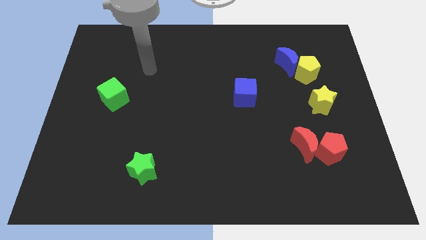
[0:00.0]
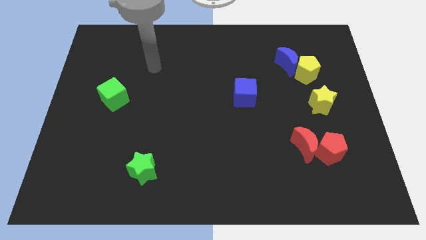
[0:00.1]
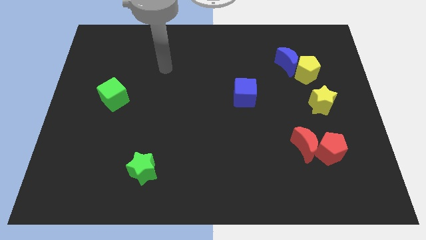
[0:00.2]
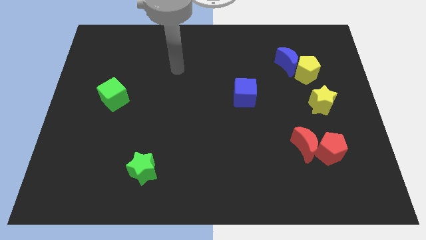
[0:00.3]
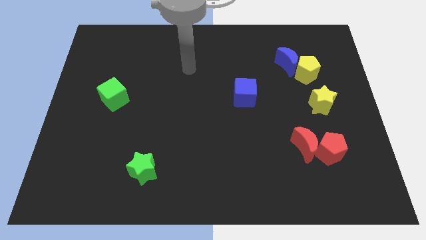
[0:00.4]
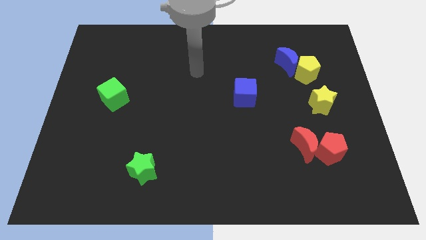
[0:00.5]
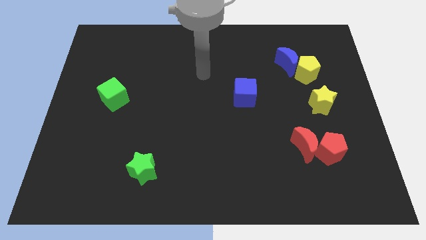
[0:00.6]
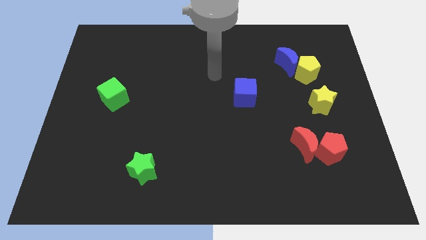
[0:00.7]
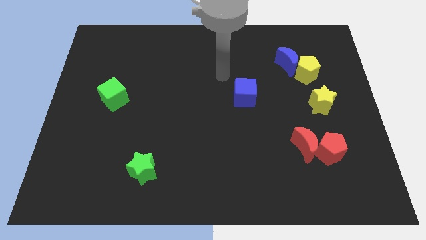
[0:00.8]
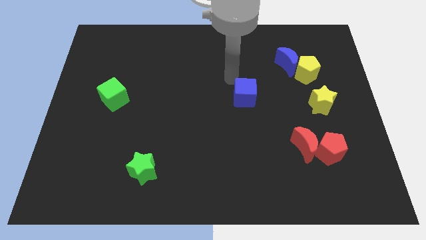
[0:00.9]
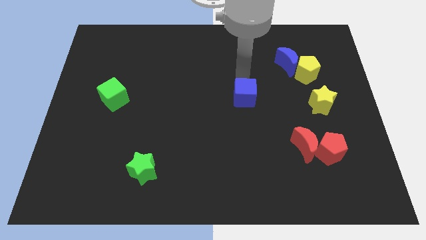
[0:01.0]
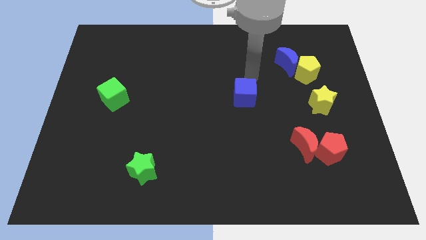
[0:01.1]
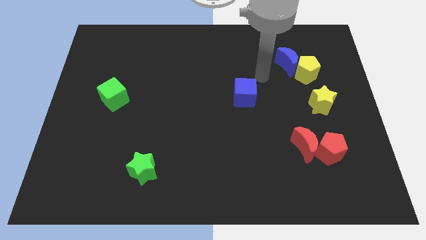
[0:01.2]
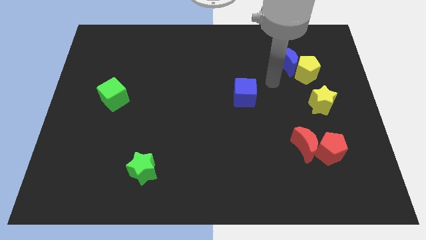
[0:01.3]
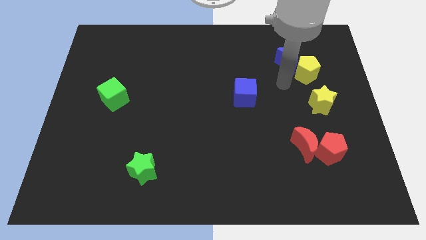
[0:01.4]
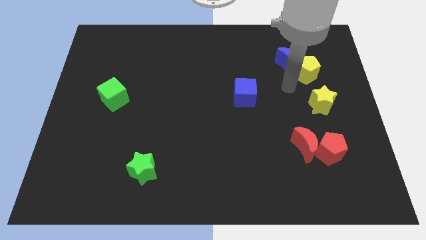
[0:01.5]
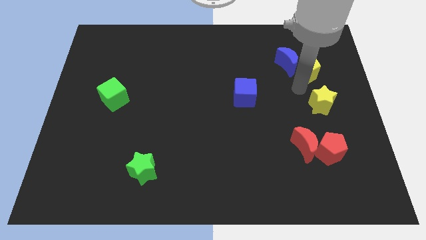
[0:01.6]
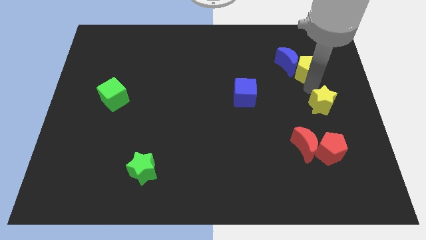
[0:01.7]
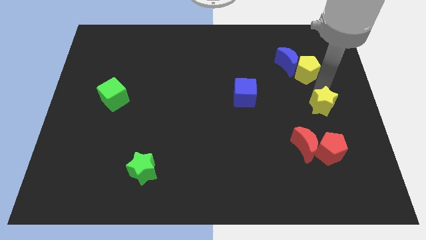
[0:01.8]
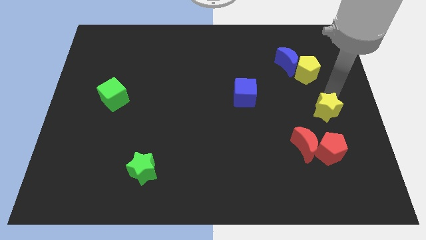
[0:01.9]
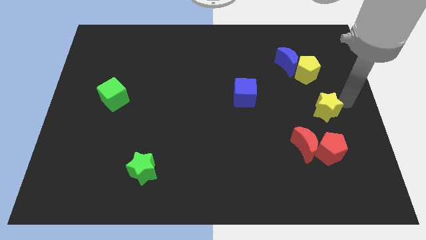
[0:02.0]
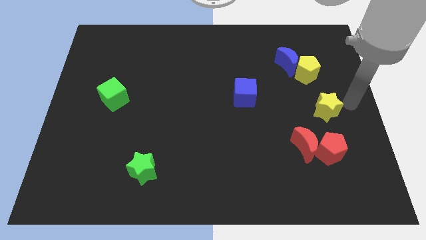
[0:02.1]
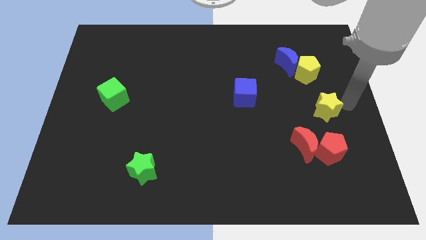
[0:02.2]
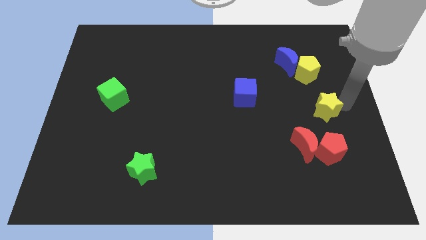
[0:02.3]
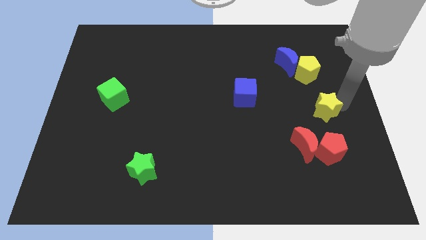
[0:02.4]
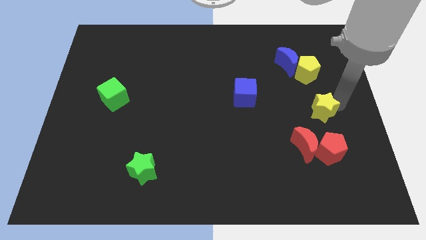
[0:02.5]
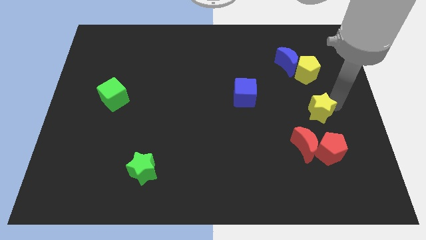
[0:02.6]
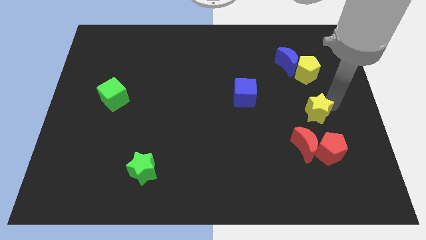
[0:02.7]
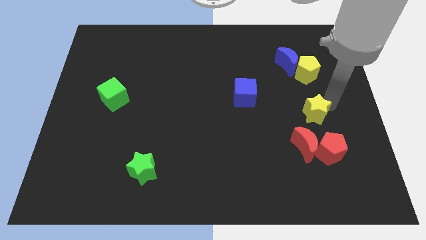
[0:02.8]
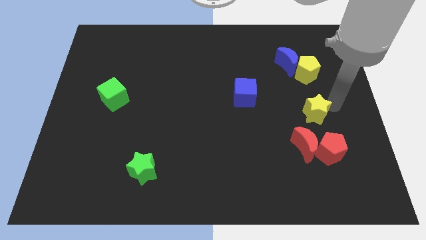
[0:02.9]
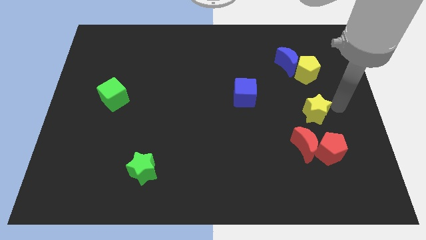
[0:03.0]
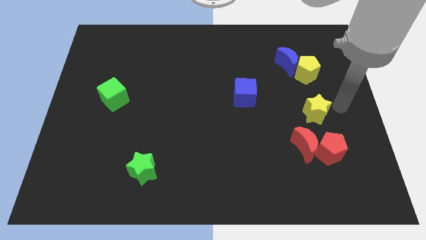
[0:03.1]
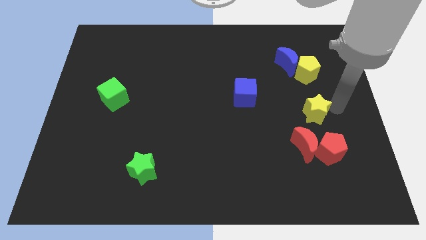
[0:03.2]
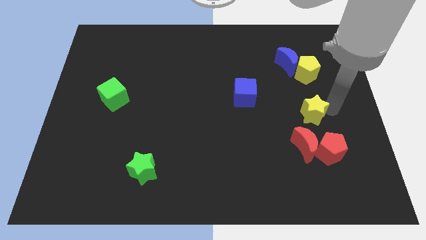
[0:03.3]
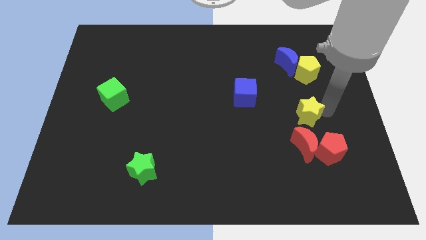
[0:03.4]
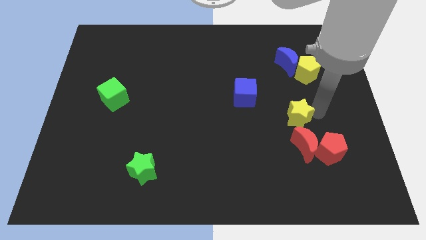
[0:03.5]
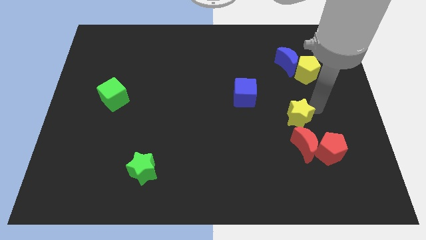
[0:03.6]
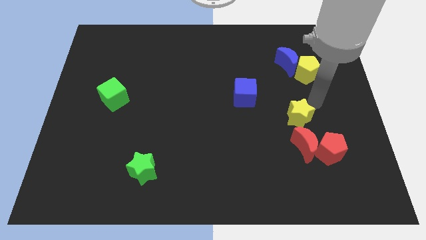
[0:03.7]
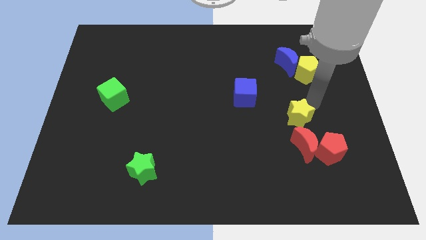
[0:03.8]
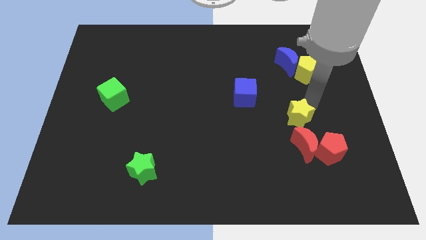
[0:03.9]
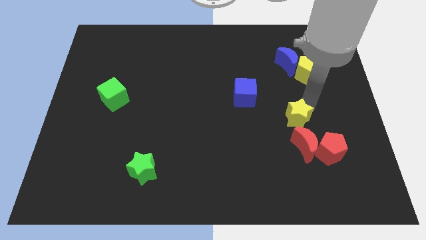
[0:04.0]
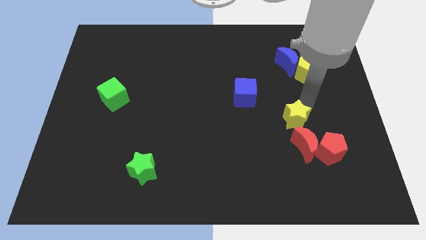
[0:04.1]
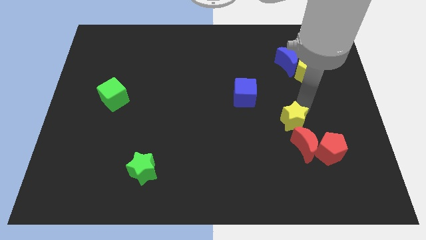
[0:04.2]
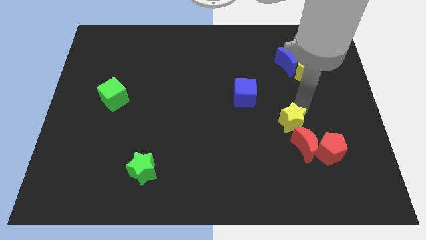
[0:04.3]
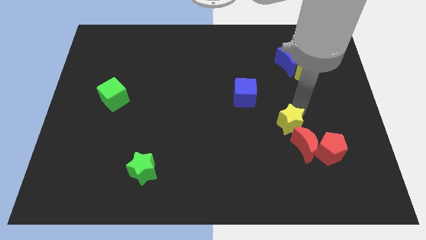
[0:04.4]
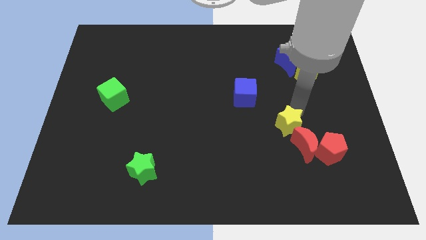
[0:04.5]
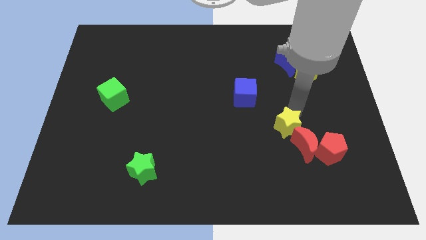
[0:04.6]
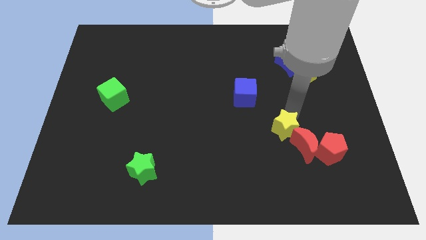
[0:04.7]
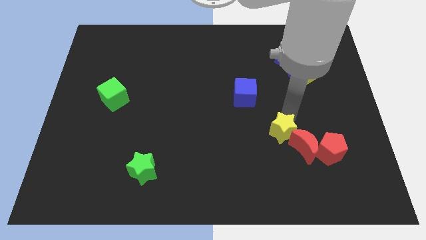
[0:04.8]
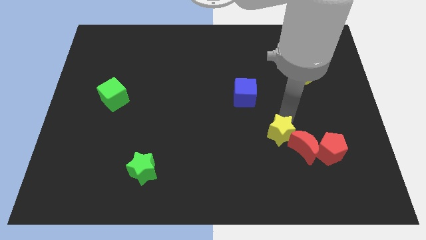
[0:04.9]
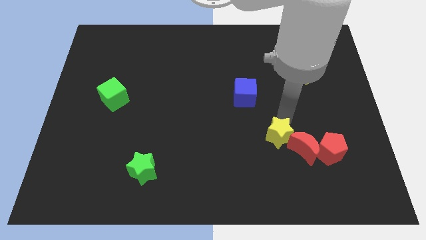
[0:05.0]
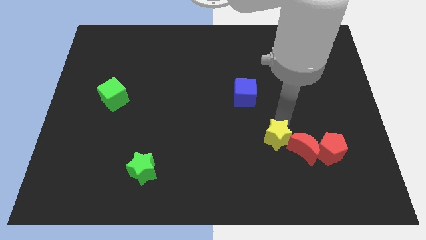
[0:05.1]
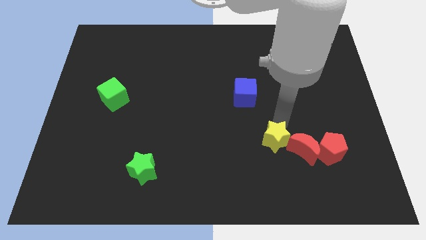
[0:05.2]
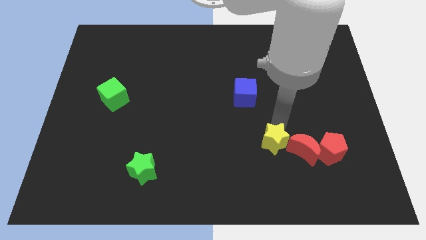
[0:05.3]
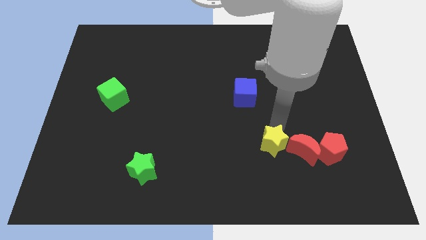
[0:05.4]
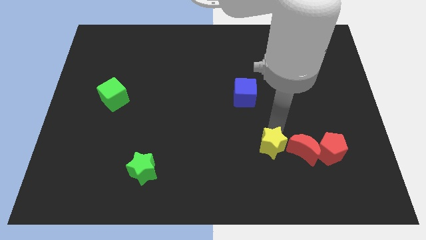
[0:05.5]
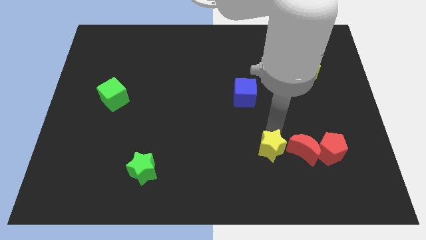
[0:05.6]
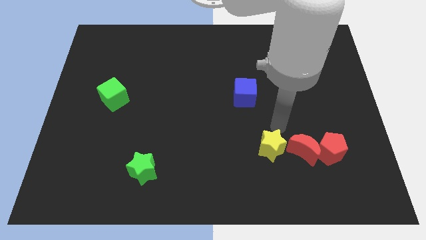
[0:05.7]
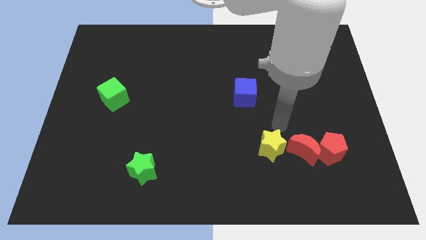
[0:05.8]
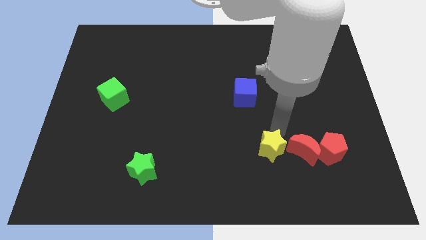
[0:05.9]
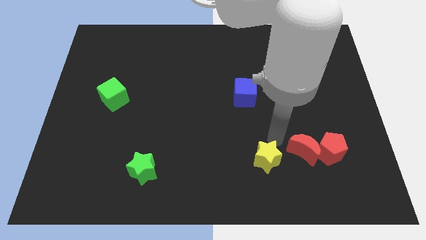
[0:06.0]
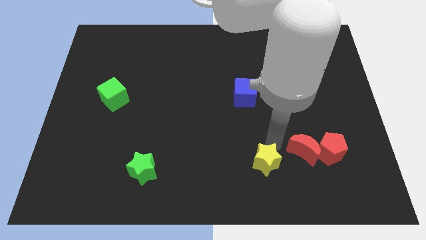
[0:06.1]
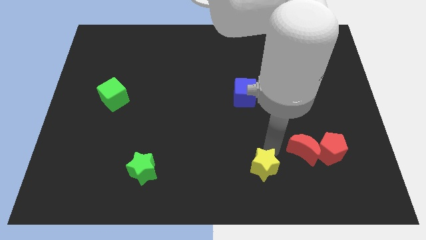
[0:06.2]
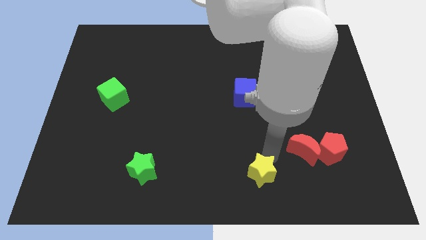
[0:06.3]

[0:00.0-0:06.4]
push the yellow star to the bottom side

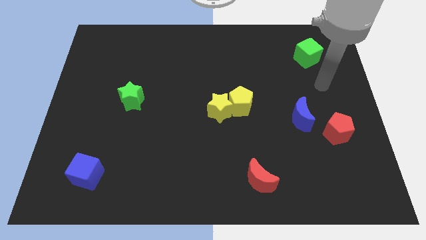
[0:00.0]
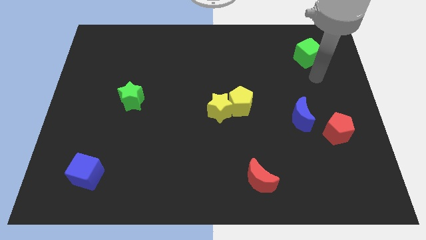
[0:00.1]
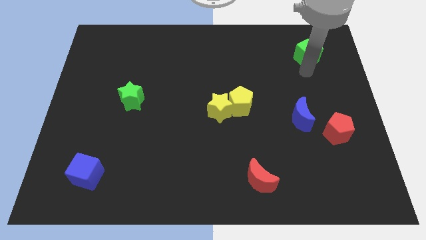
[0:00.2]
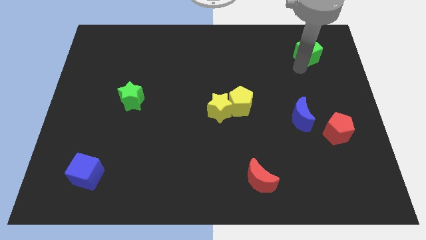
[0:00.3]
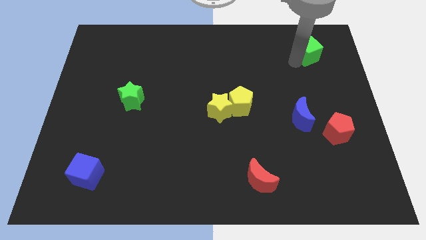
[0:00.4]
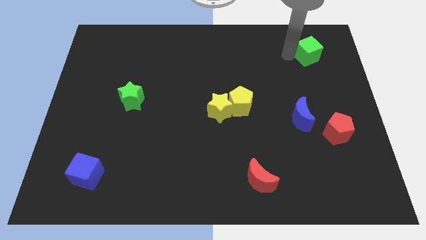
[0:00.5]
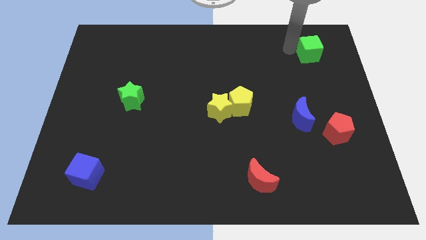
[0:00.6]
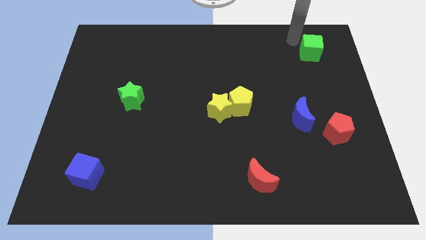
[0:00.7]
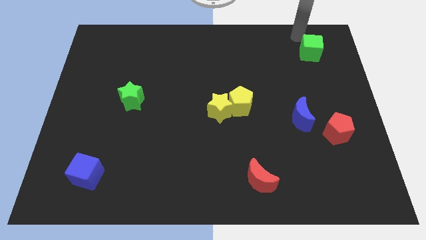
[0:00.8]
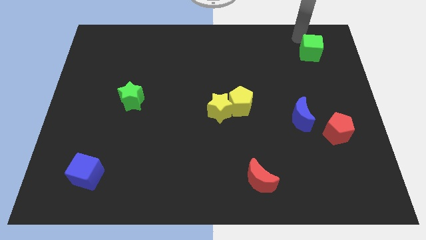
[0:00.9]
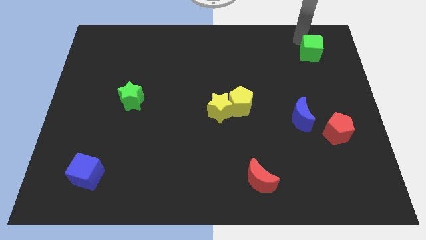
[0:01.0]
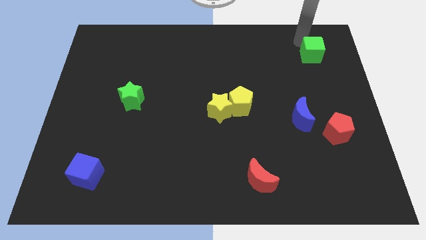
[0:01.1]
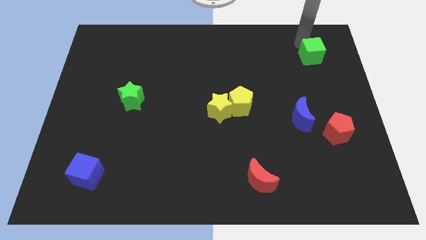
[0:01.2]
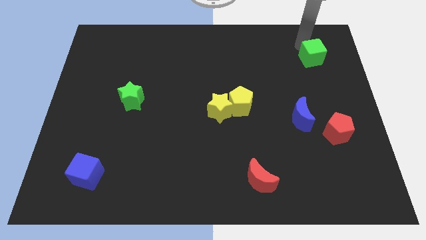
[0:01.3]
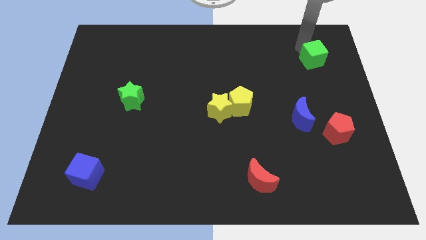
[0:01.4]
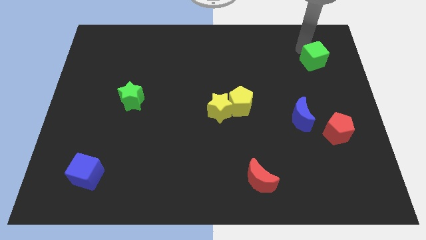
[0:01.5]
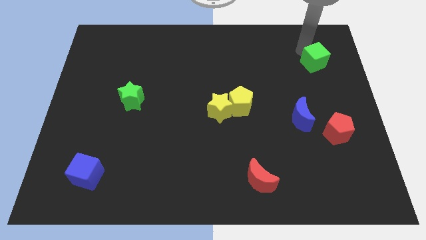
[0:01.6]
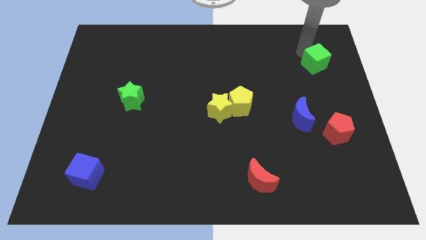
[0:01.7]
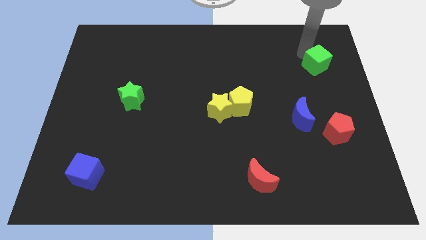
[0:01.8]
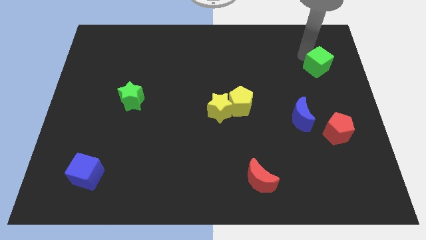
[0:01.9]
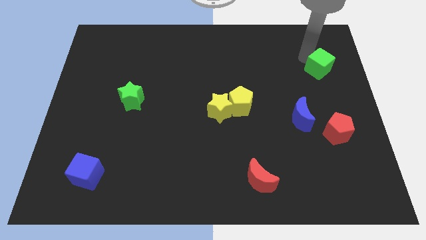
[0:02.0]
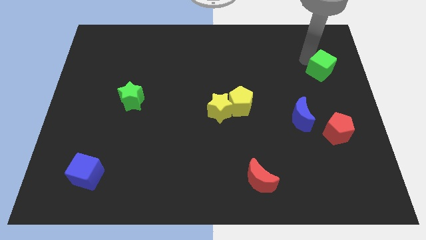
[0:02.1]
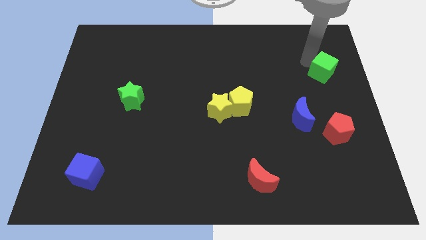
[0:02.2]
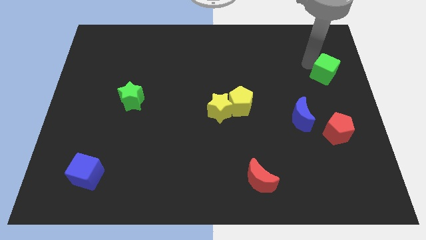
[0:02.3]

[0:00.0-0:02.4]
move the green cube to the right side of the board
